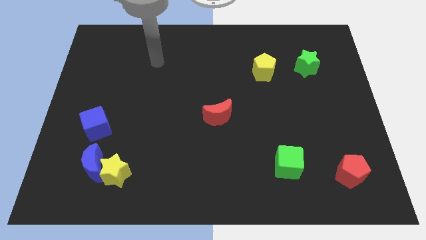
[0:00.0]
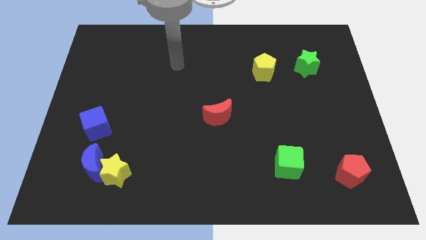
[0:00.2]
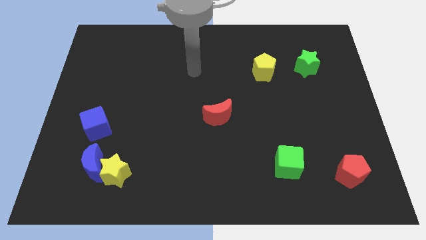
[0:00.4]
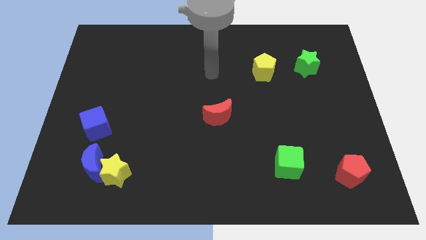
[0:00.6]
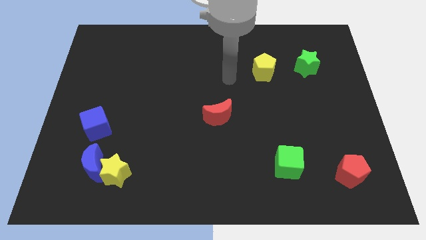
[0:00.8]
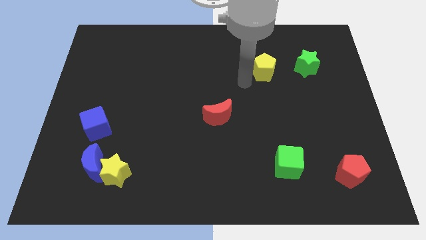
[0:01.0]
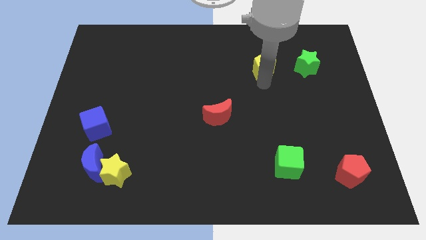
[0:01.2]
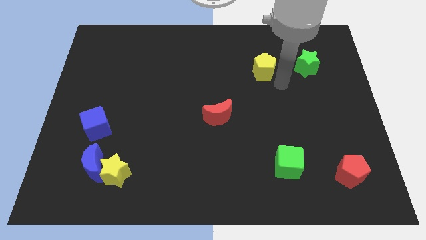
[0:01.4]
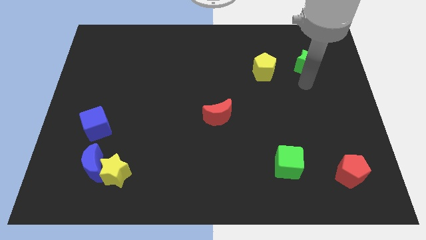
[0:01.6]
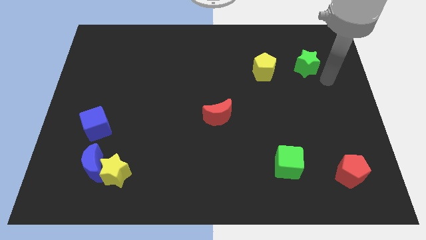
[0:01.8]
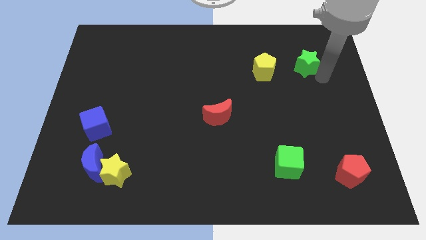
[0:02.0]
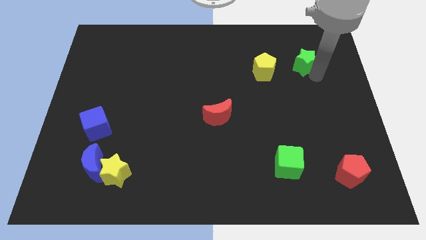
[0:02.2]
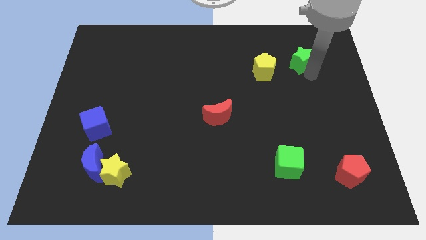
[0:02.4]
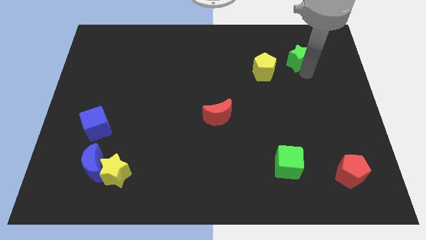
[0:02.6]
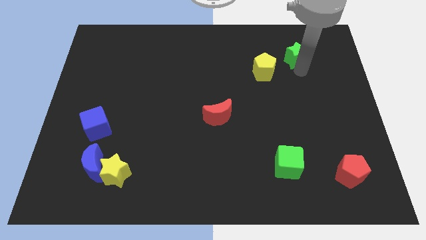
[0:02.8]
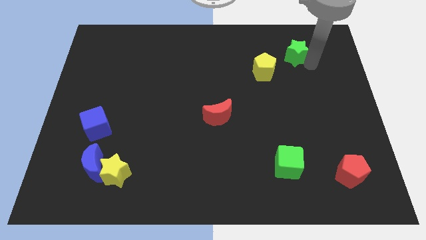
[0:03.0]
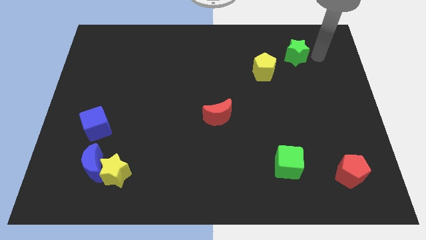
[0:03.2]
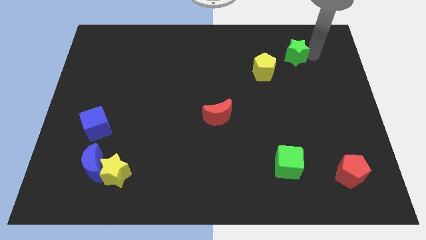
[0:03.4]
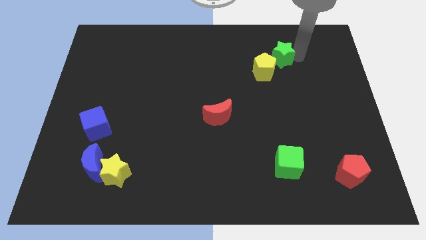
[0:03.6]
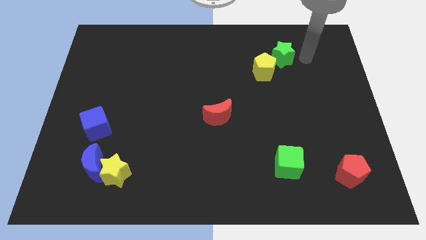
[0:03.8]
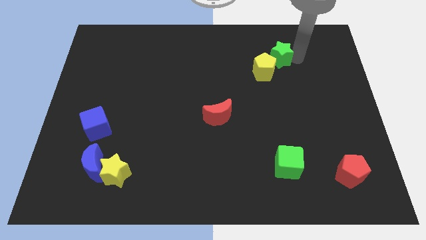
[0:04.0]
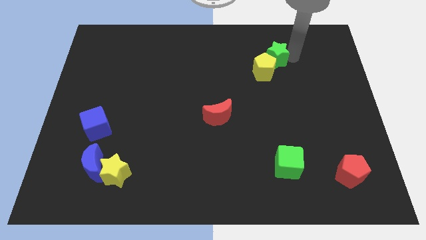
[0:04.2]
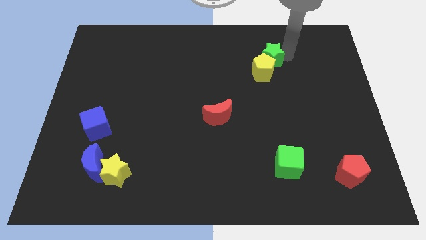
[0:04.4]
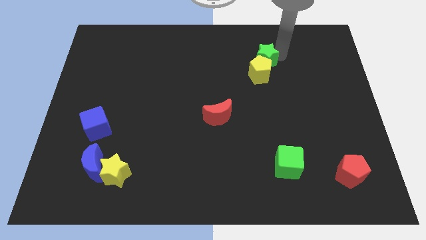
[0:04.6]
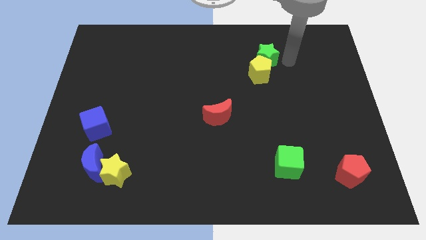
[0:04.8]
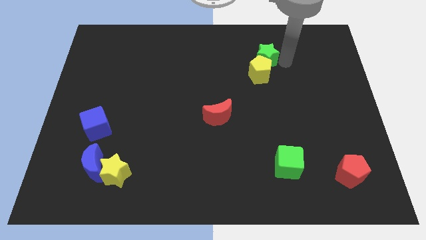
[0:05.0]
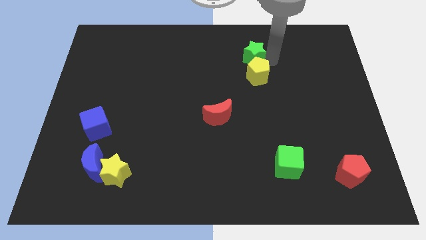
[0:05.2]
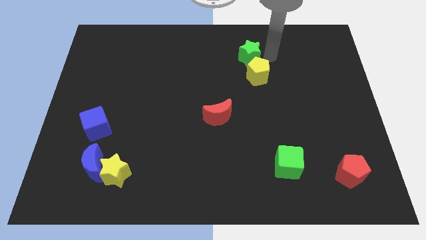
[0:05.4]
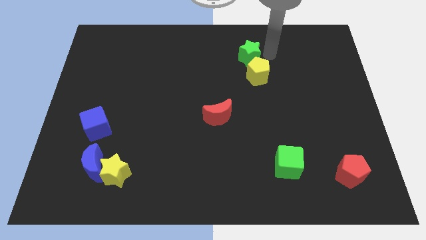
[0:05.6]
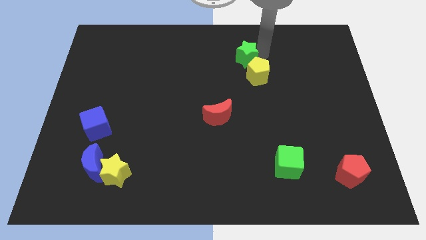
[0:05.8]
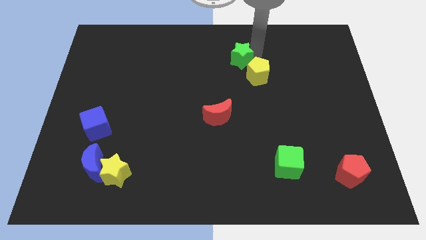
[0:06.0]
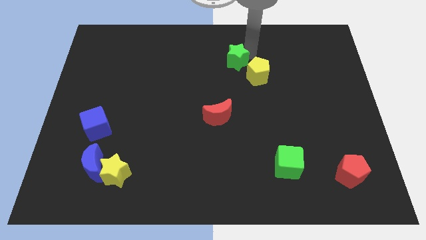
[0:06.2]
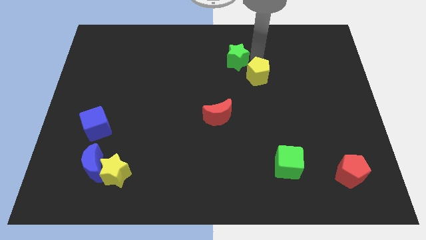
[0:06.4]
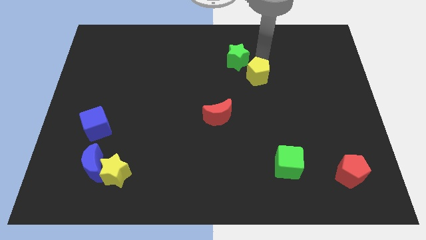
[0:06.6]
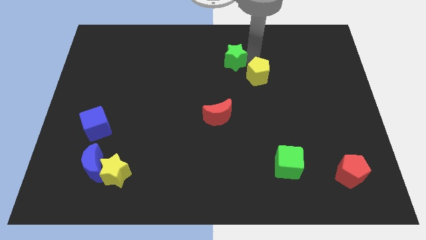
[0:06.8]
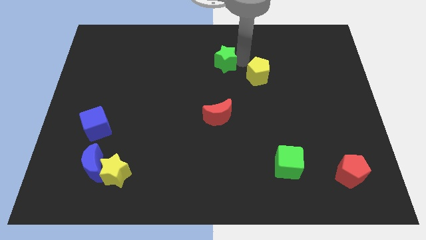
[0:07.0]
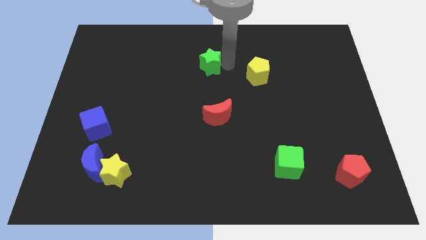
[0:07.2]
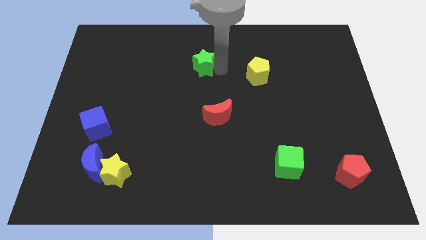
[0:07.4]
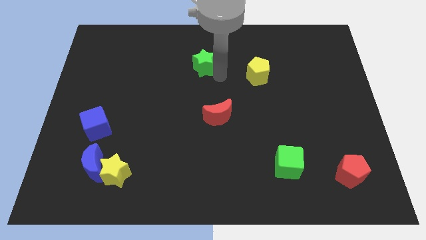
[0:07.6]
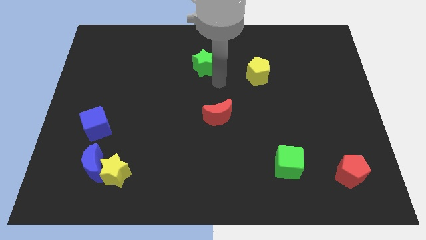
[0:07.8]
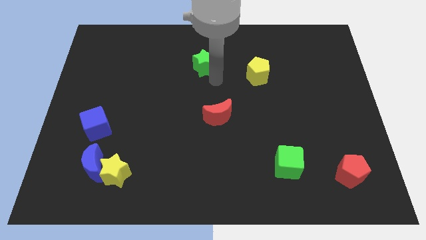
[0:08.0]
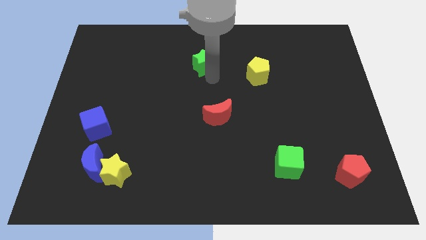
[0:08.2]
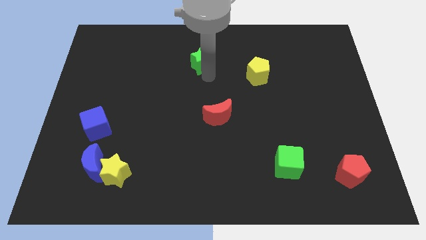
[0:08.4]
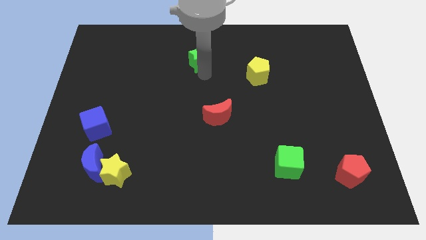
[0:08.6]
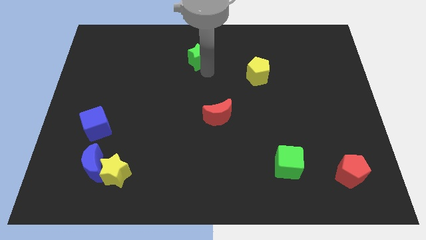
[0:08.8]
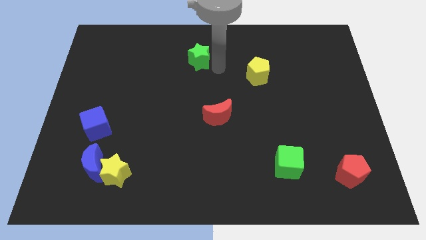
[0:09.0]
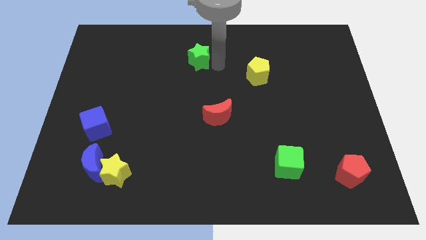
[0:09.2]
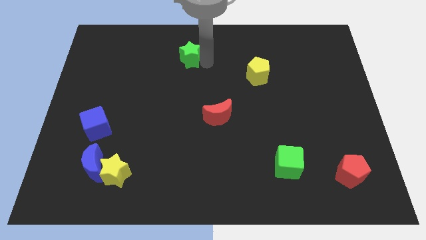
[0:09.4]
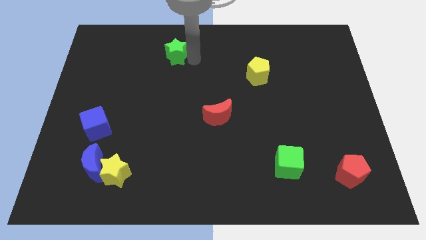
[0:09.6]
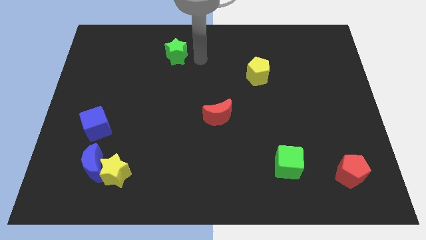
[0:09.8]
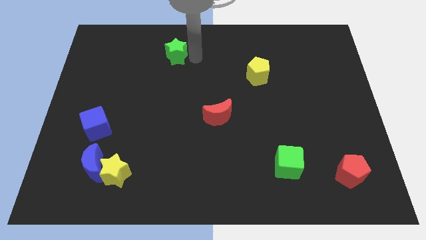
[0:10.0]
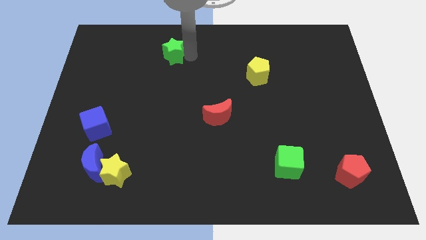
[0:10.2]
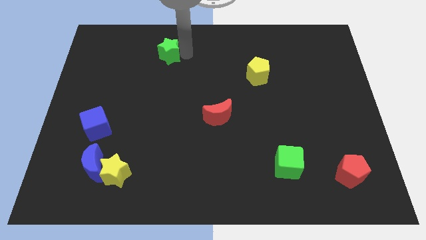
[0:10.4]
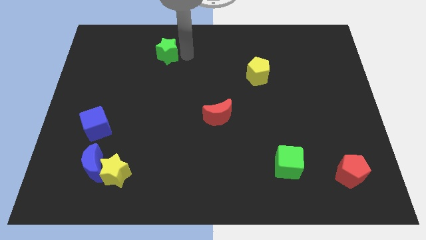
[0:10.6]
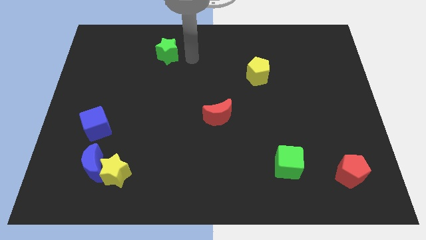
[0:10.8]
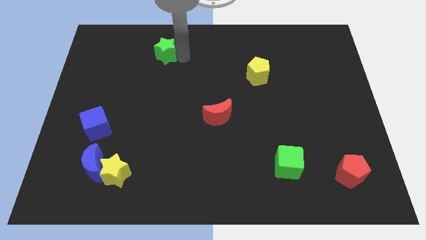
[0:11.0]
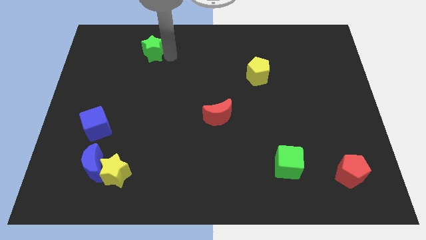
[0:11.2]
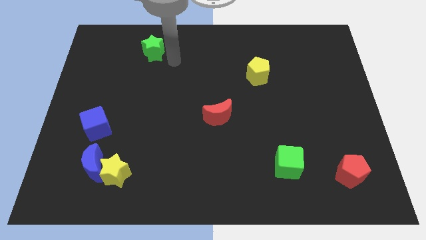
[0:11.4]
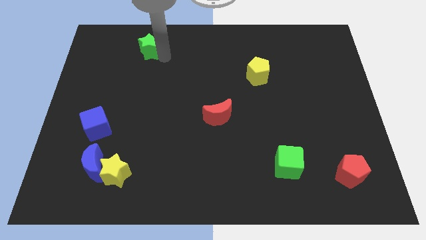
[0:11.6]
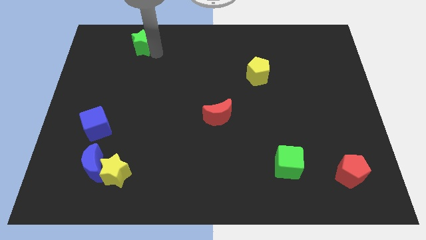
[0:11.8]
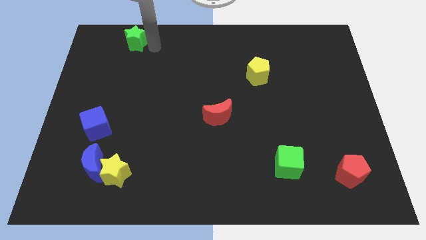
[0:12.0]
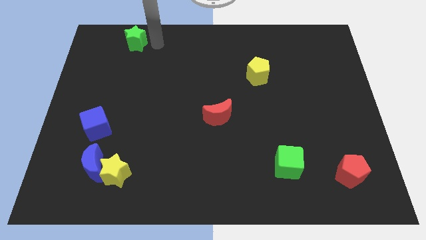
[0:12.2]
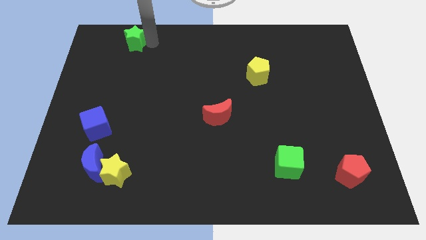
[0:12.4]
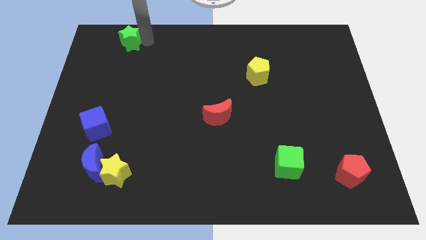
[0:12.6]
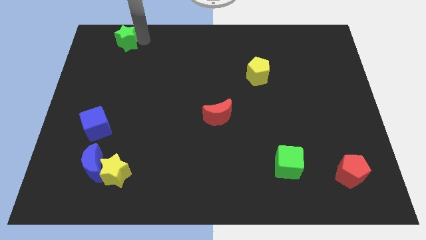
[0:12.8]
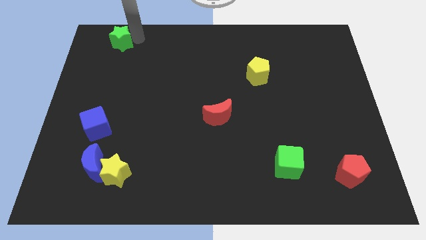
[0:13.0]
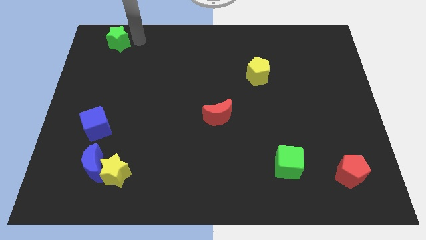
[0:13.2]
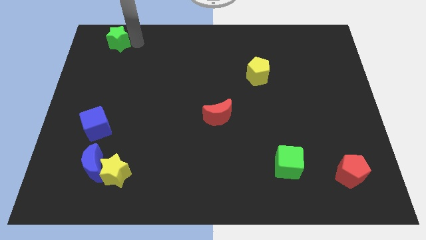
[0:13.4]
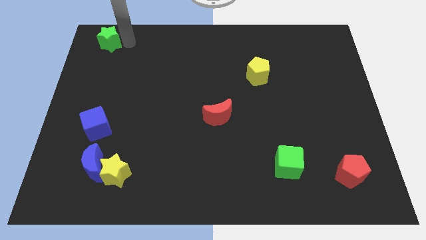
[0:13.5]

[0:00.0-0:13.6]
push the green star to the top left of the board
